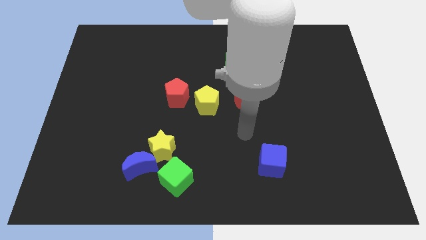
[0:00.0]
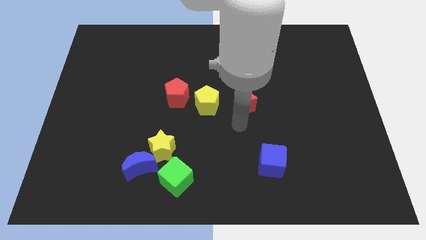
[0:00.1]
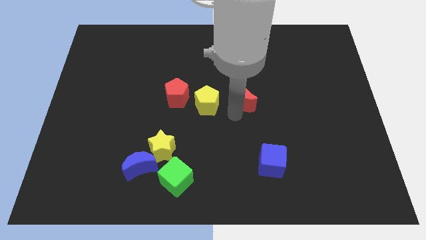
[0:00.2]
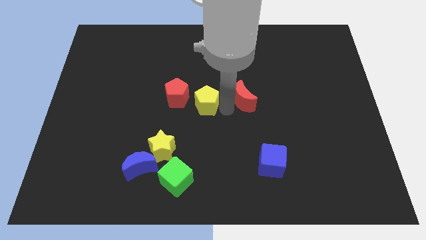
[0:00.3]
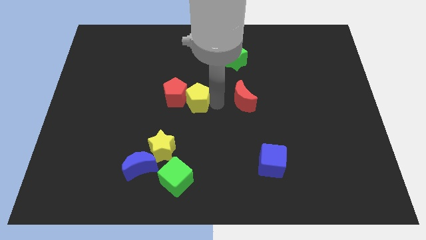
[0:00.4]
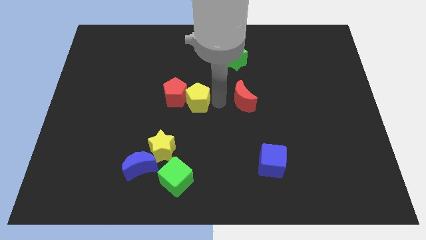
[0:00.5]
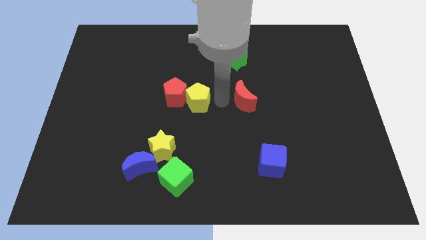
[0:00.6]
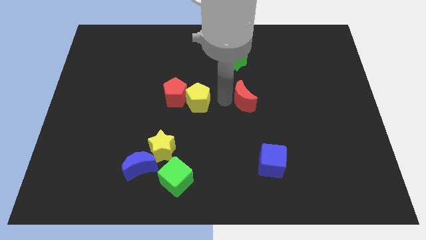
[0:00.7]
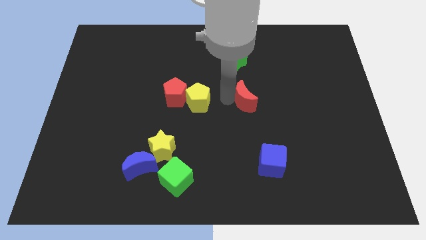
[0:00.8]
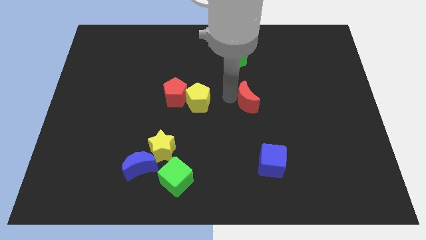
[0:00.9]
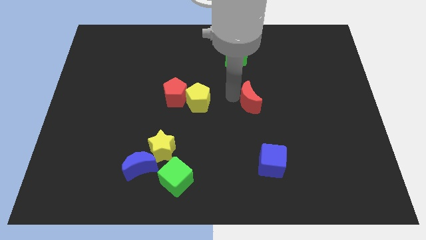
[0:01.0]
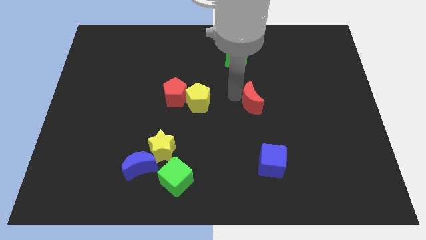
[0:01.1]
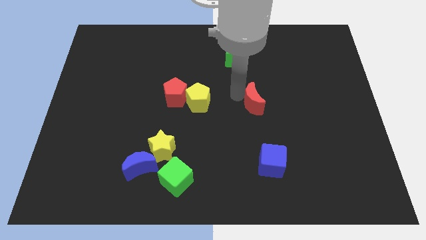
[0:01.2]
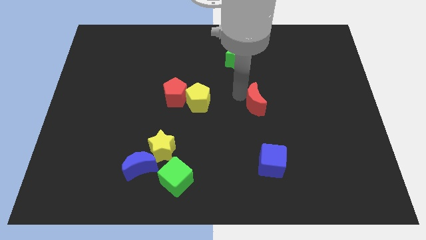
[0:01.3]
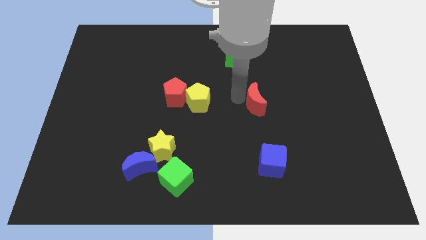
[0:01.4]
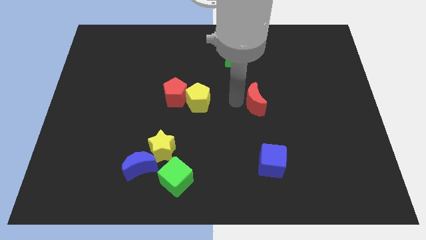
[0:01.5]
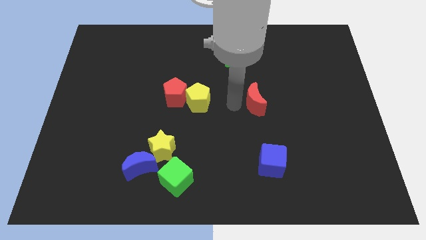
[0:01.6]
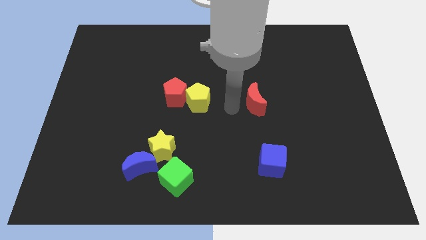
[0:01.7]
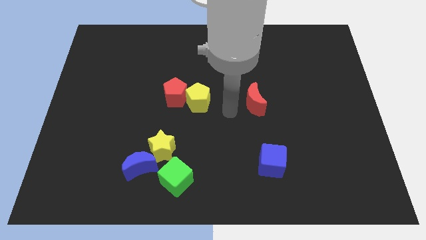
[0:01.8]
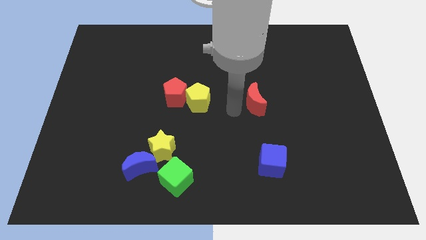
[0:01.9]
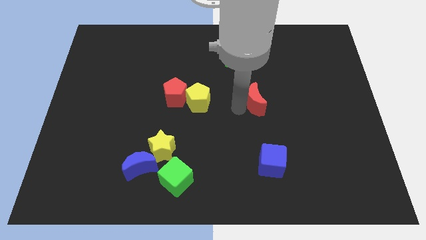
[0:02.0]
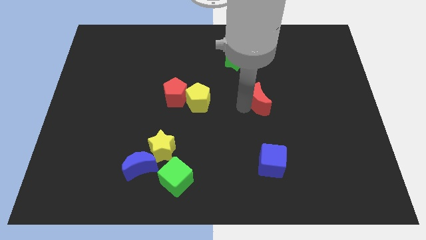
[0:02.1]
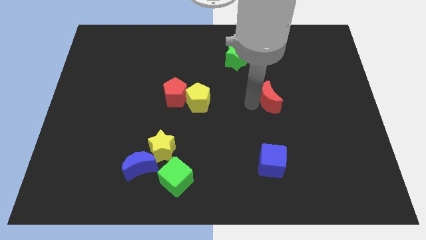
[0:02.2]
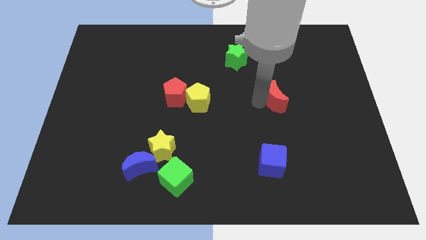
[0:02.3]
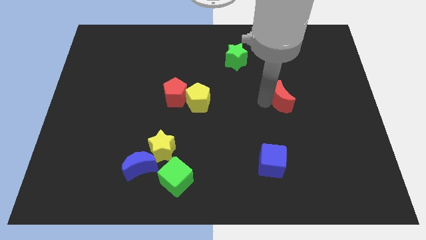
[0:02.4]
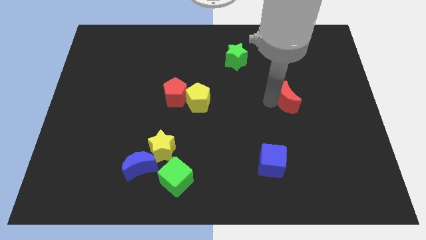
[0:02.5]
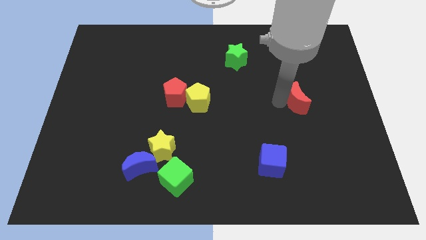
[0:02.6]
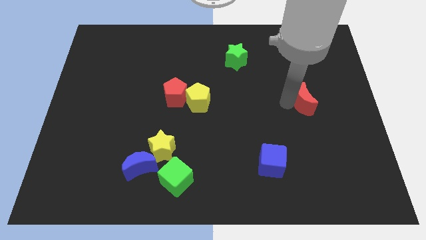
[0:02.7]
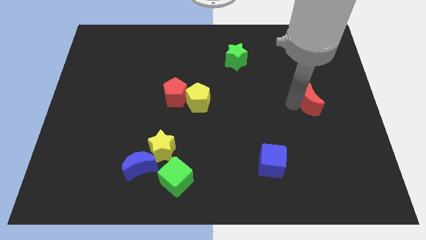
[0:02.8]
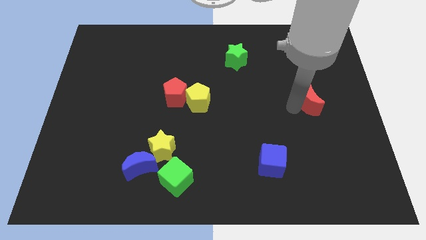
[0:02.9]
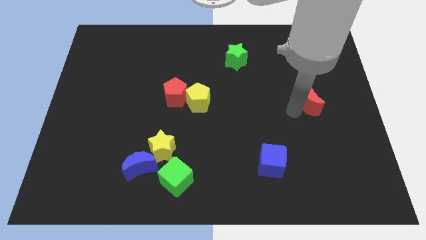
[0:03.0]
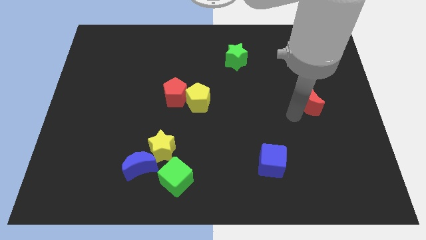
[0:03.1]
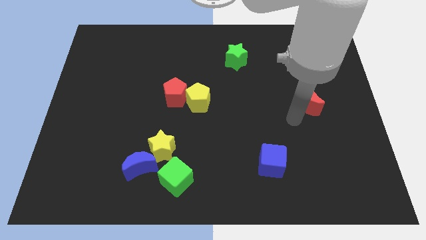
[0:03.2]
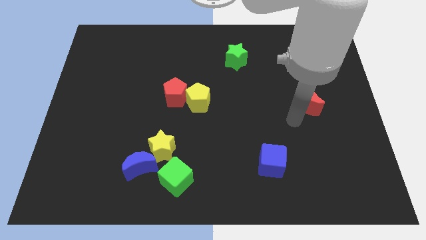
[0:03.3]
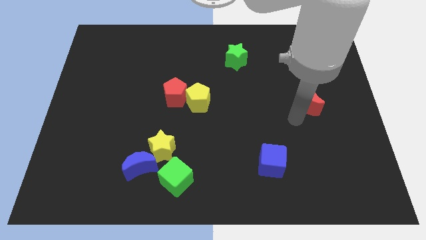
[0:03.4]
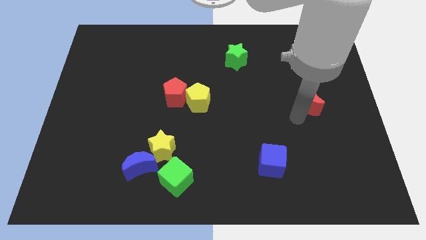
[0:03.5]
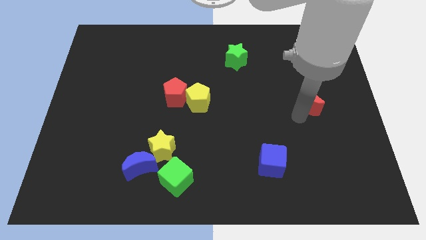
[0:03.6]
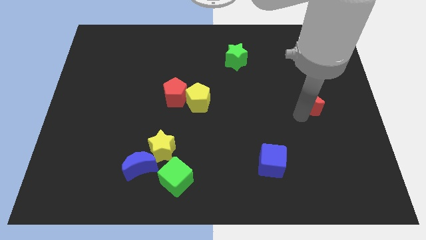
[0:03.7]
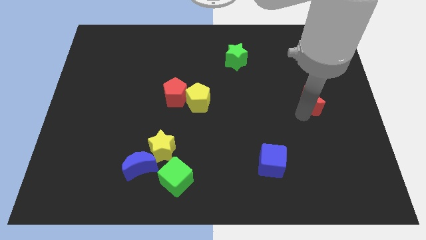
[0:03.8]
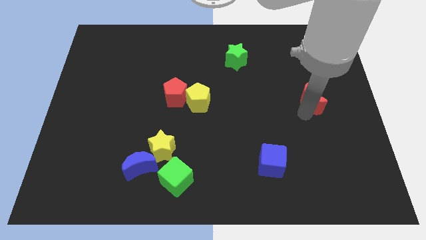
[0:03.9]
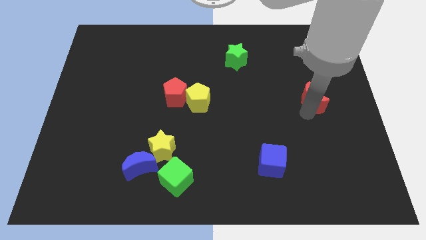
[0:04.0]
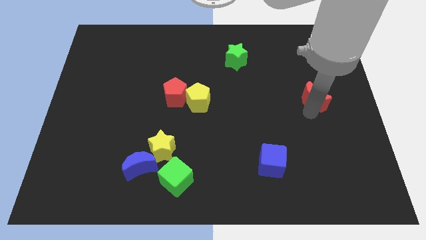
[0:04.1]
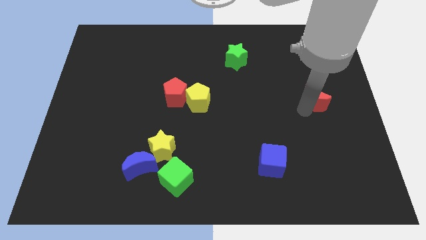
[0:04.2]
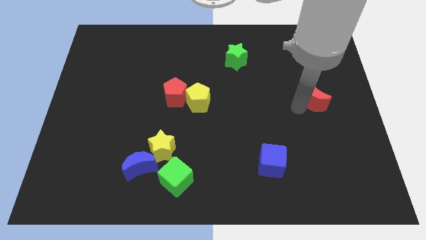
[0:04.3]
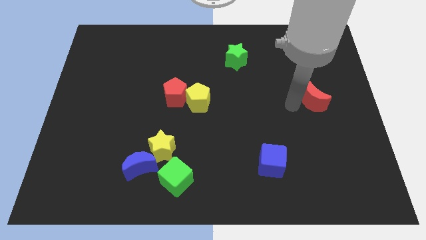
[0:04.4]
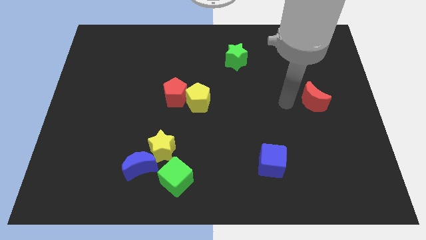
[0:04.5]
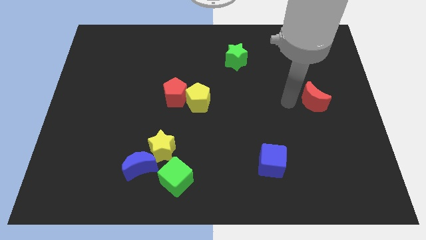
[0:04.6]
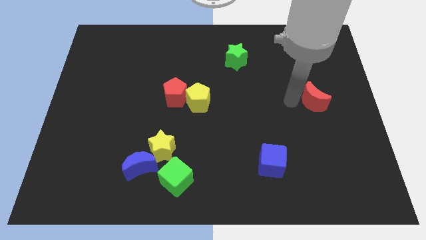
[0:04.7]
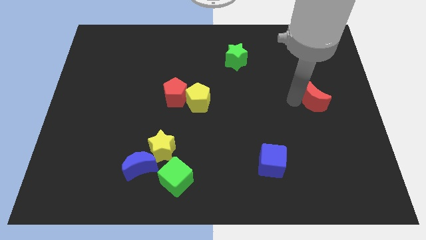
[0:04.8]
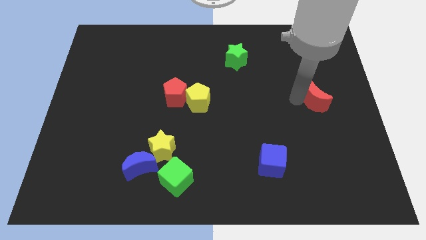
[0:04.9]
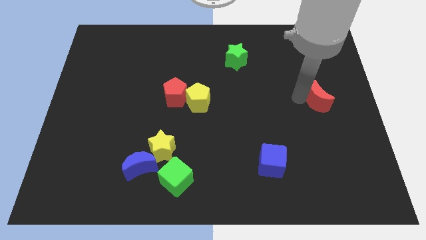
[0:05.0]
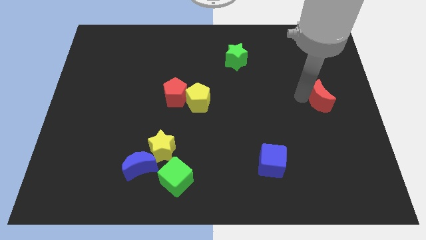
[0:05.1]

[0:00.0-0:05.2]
put the red moon to the center right

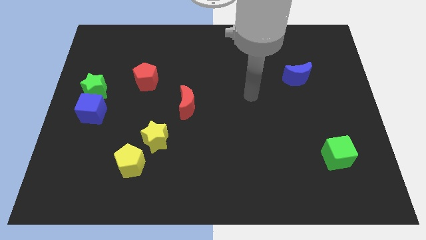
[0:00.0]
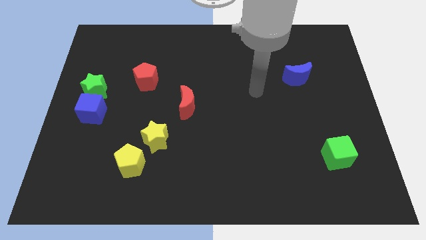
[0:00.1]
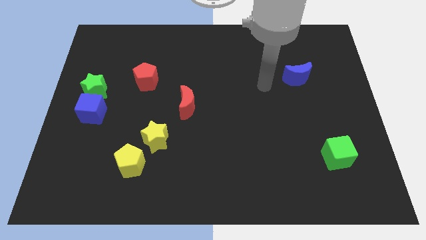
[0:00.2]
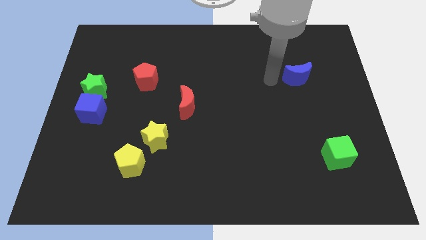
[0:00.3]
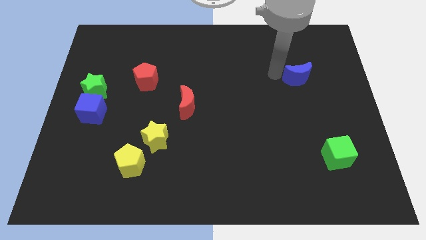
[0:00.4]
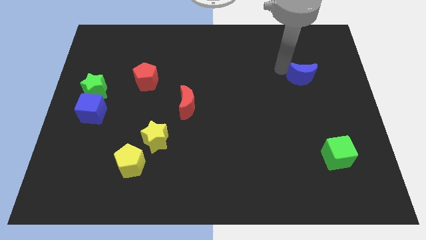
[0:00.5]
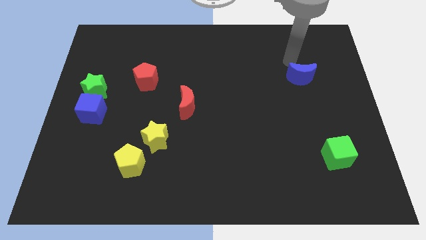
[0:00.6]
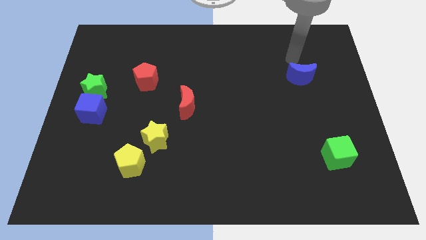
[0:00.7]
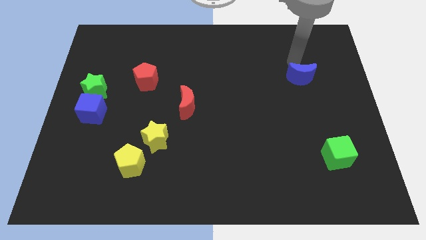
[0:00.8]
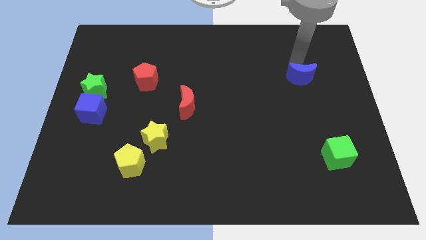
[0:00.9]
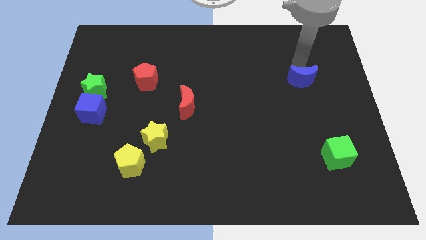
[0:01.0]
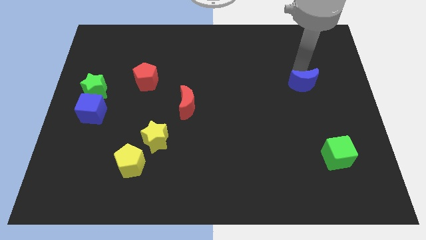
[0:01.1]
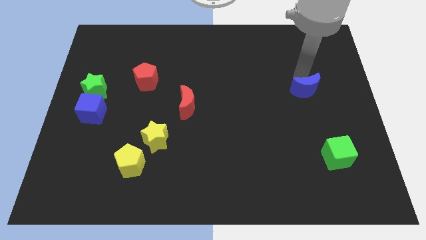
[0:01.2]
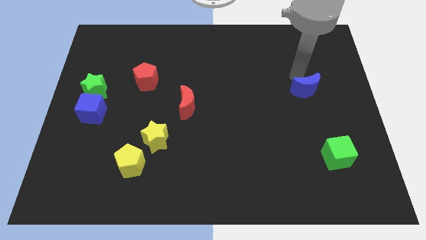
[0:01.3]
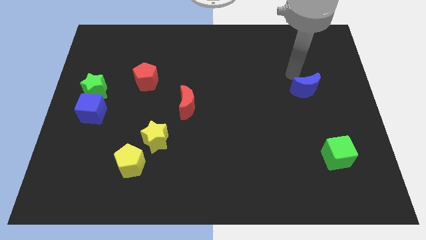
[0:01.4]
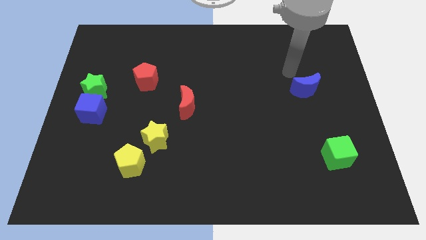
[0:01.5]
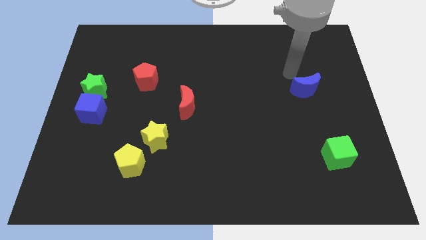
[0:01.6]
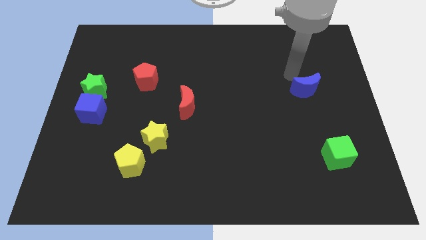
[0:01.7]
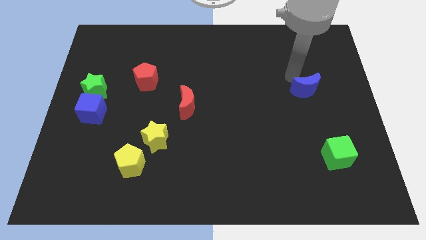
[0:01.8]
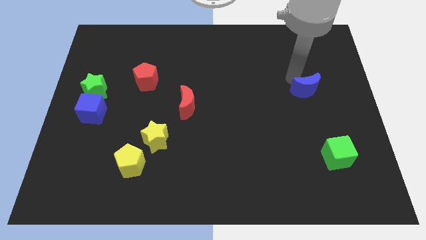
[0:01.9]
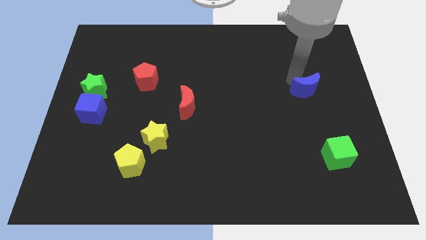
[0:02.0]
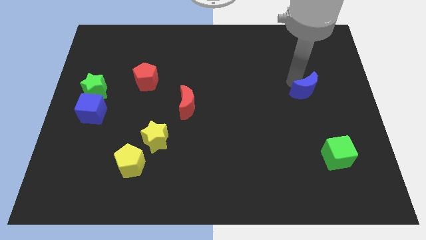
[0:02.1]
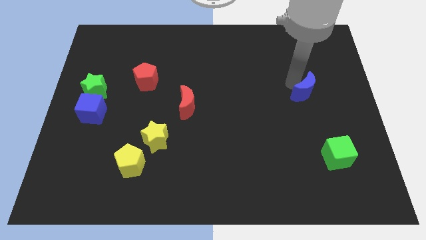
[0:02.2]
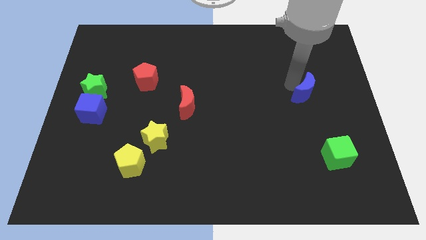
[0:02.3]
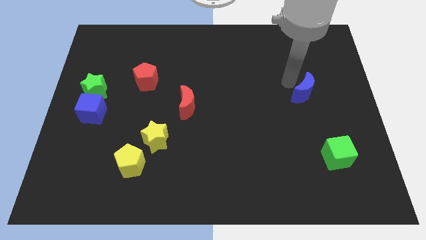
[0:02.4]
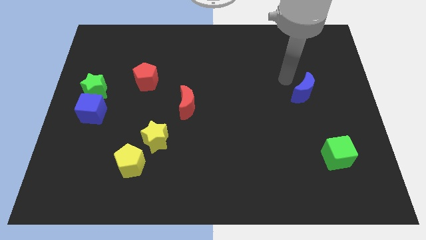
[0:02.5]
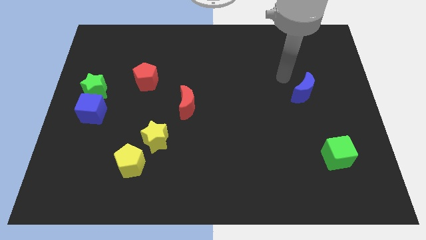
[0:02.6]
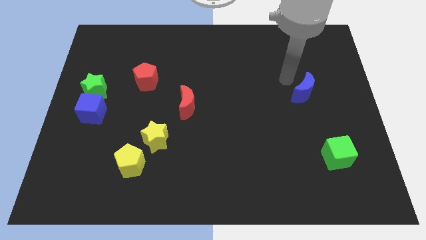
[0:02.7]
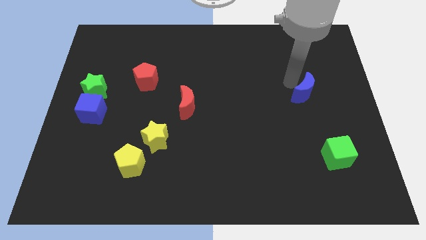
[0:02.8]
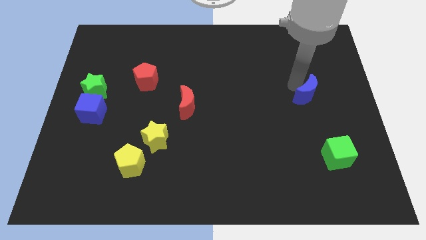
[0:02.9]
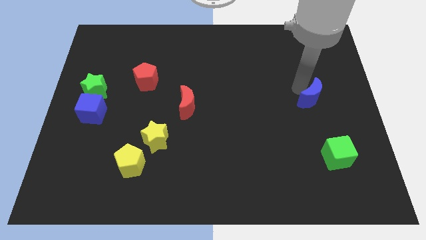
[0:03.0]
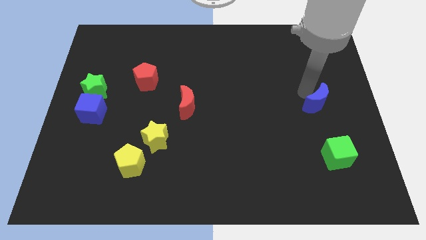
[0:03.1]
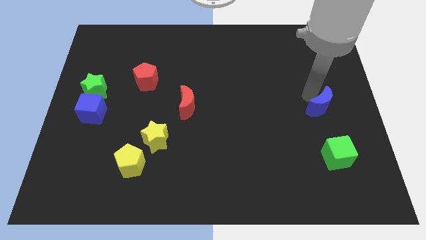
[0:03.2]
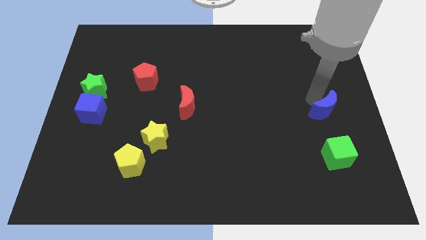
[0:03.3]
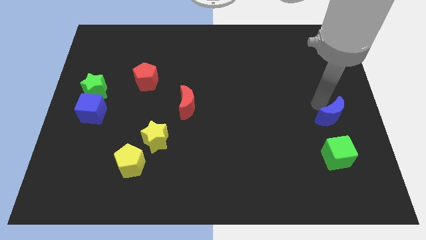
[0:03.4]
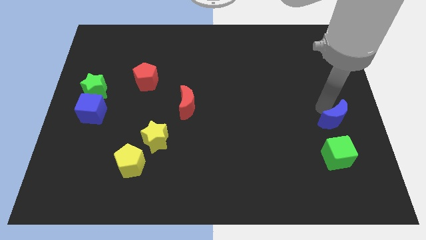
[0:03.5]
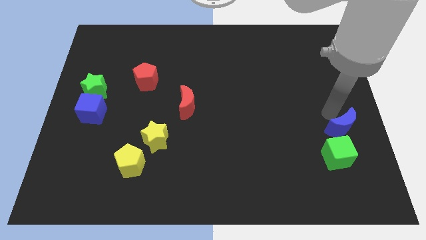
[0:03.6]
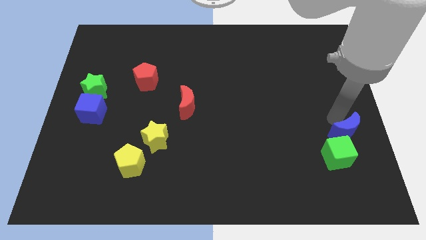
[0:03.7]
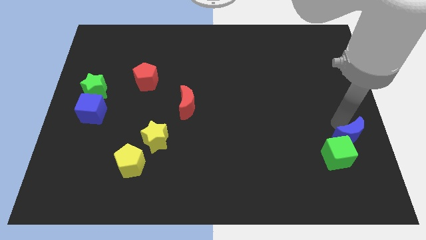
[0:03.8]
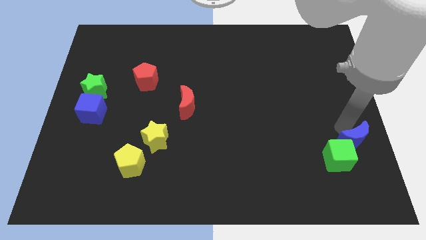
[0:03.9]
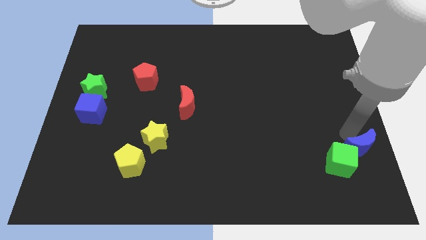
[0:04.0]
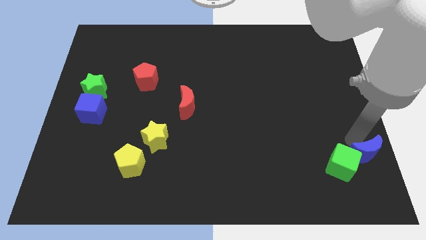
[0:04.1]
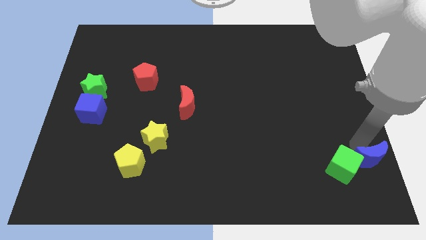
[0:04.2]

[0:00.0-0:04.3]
push the blue moon to the lower right corner
